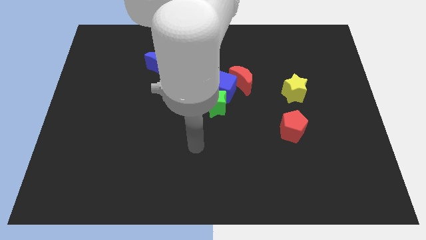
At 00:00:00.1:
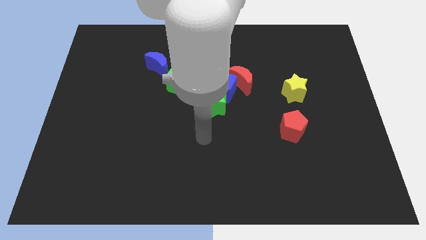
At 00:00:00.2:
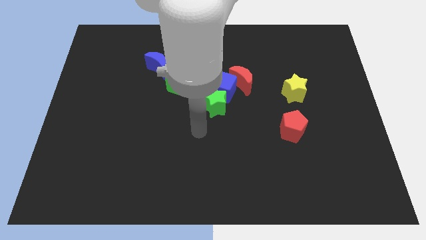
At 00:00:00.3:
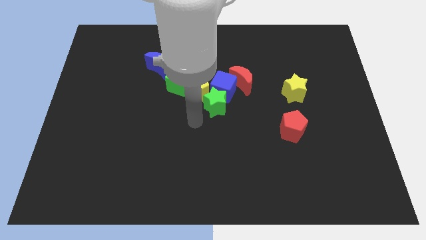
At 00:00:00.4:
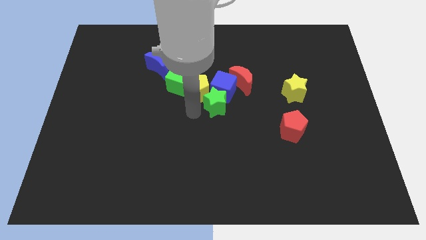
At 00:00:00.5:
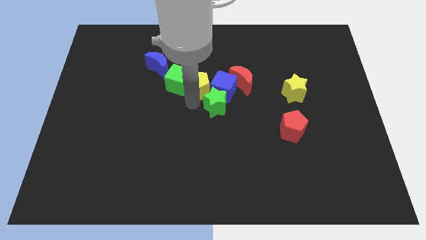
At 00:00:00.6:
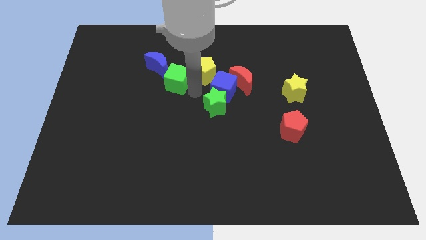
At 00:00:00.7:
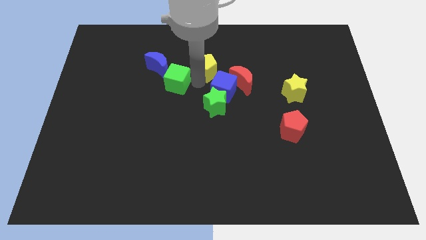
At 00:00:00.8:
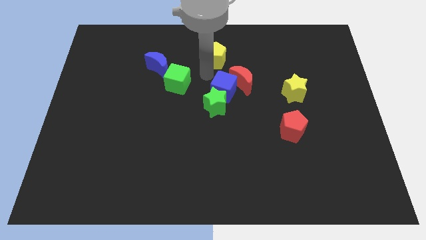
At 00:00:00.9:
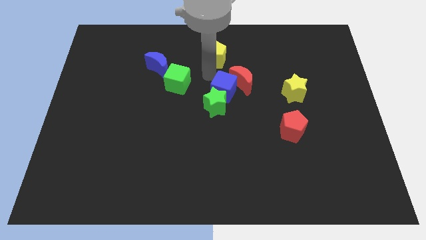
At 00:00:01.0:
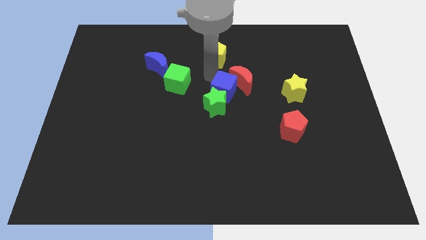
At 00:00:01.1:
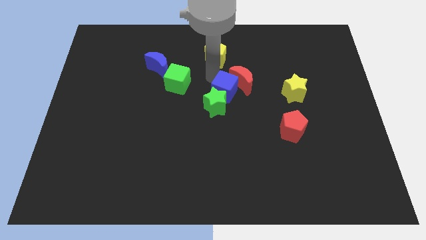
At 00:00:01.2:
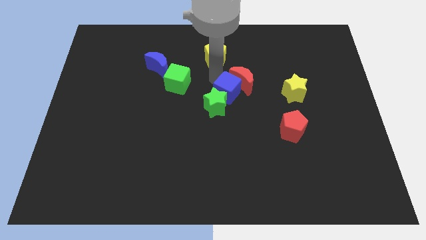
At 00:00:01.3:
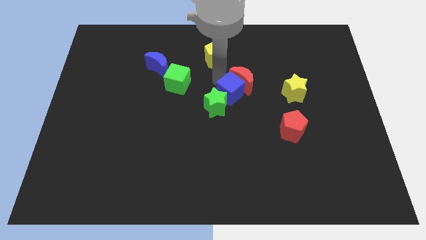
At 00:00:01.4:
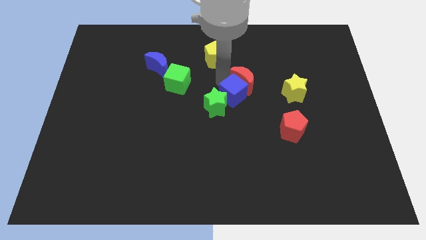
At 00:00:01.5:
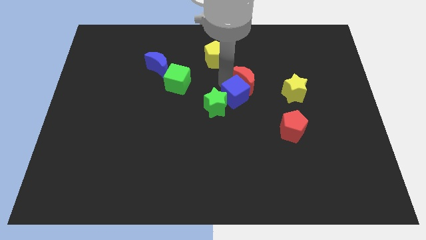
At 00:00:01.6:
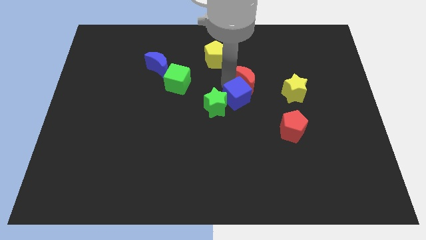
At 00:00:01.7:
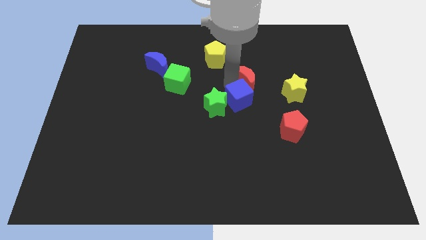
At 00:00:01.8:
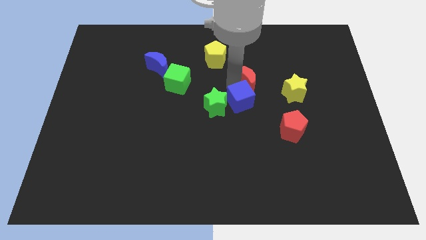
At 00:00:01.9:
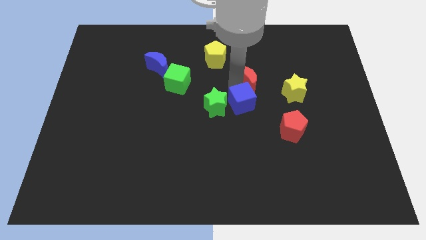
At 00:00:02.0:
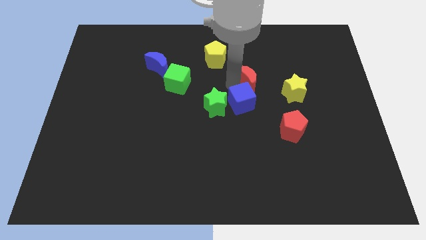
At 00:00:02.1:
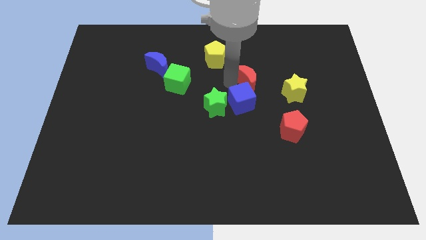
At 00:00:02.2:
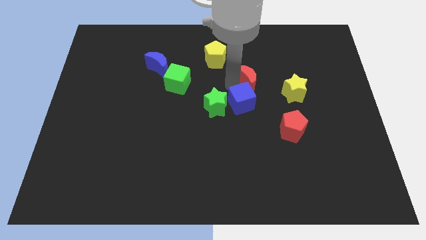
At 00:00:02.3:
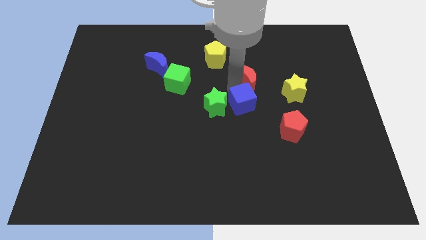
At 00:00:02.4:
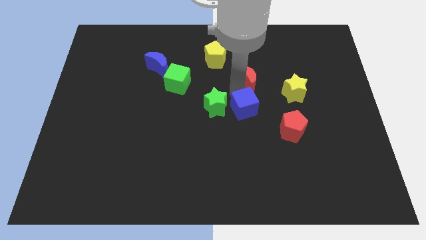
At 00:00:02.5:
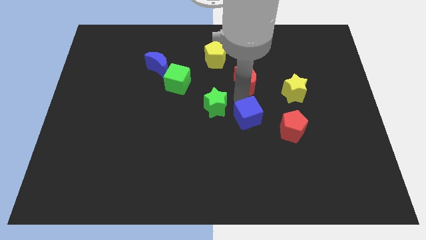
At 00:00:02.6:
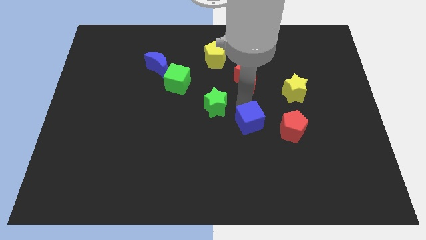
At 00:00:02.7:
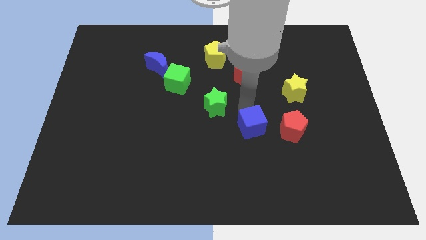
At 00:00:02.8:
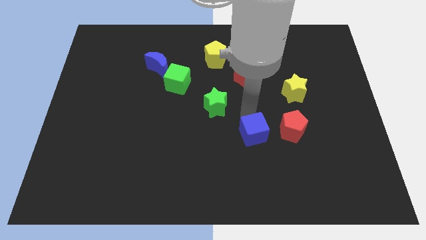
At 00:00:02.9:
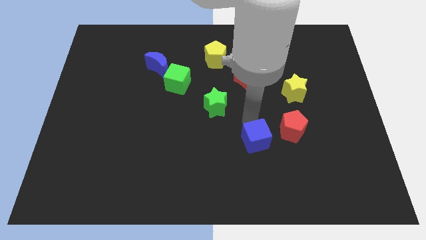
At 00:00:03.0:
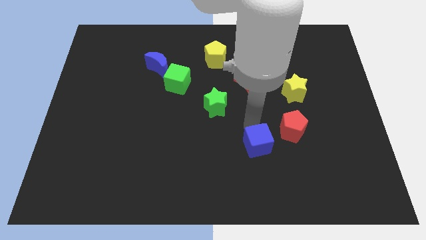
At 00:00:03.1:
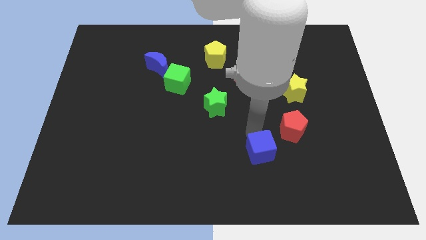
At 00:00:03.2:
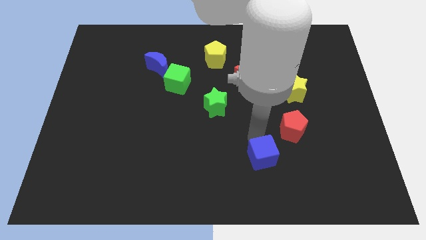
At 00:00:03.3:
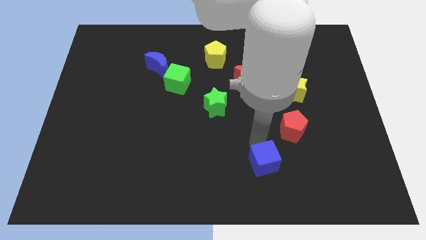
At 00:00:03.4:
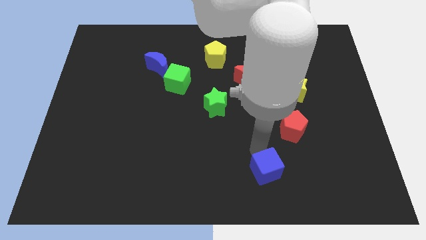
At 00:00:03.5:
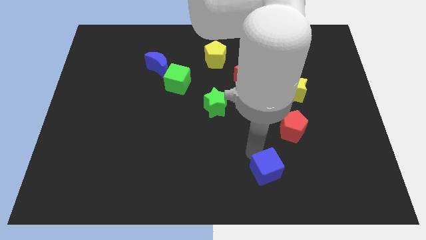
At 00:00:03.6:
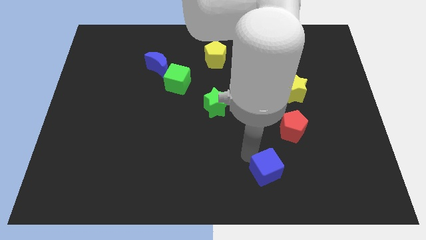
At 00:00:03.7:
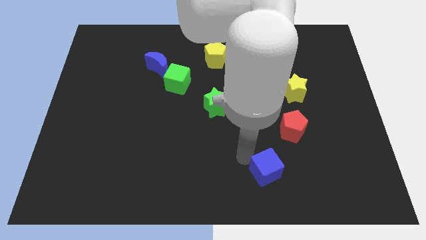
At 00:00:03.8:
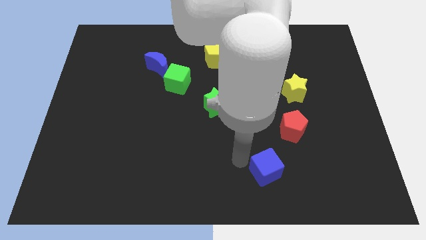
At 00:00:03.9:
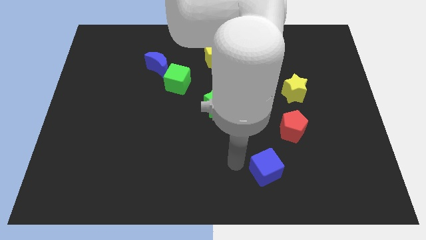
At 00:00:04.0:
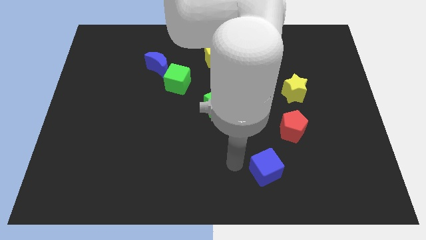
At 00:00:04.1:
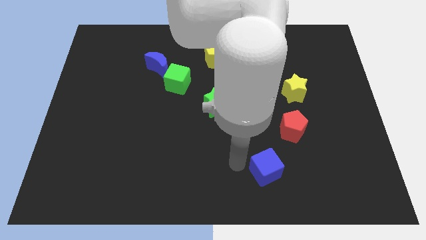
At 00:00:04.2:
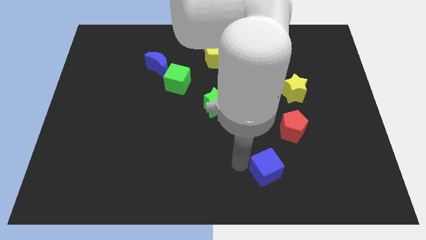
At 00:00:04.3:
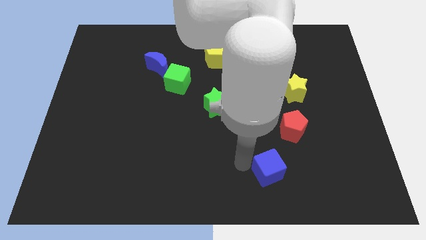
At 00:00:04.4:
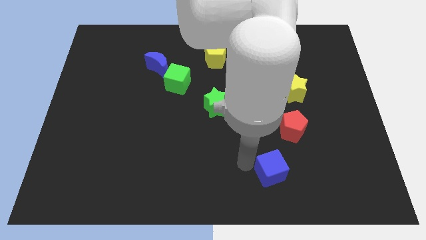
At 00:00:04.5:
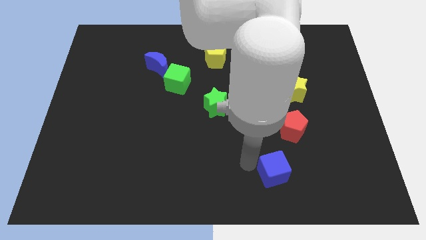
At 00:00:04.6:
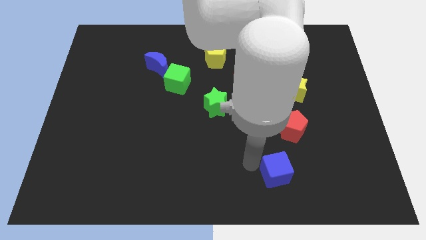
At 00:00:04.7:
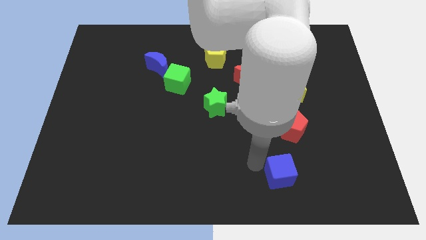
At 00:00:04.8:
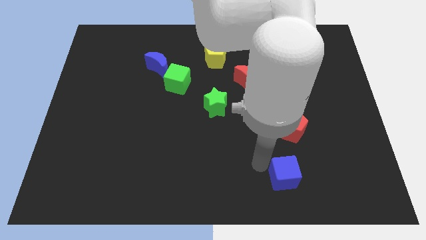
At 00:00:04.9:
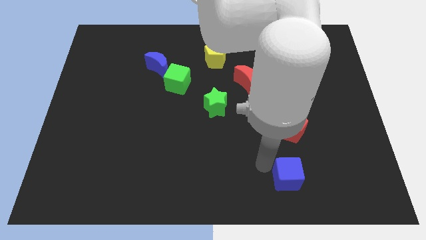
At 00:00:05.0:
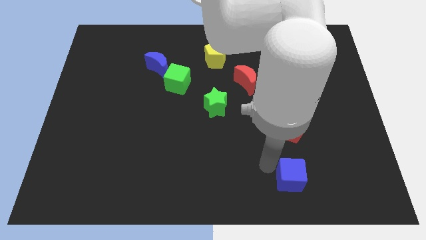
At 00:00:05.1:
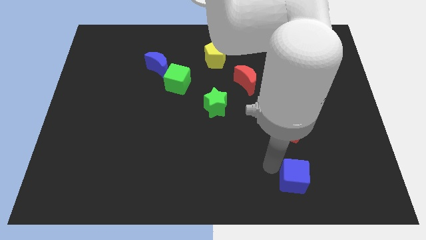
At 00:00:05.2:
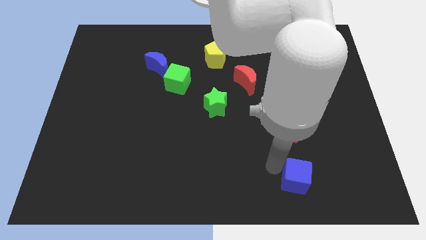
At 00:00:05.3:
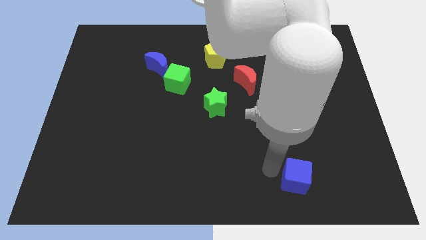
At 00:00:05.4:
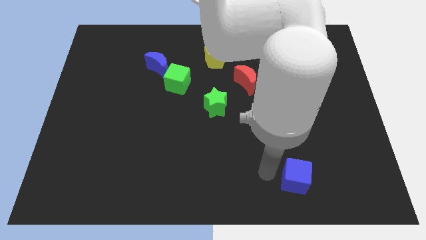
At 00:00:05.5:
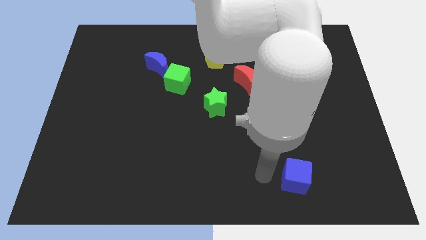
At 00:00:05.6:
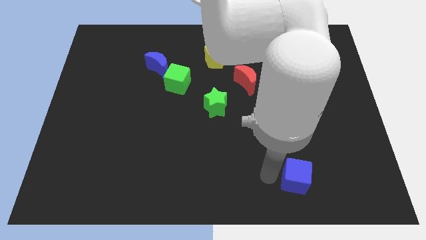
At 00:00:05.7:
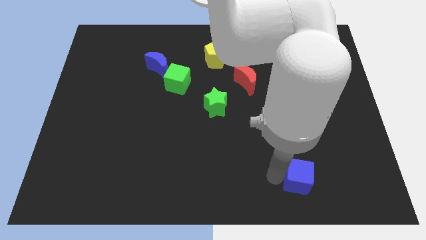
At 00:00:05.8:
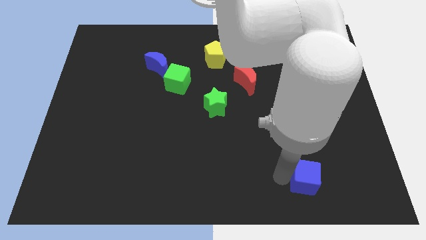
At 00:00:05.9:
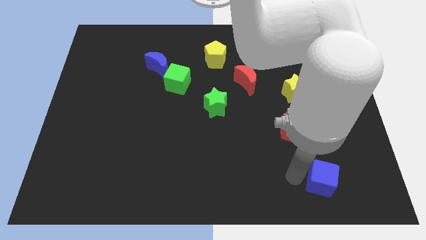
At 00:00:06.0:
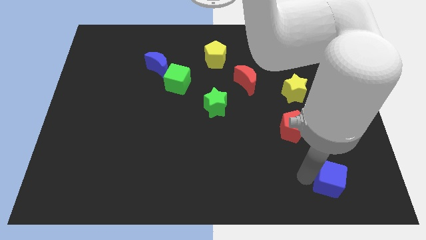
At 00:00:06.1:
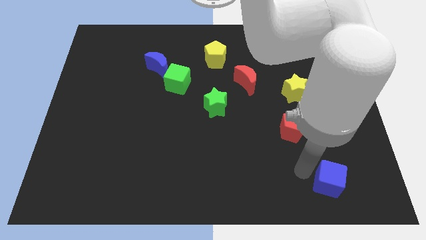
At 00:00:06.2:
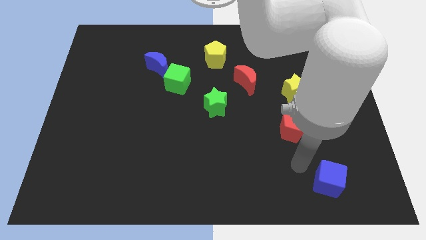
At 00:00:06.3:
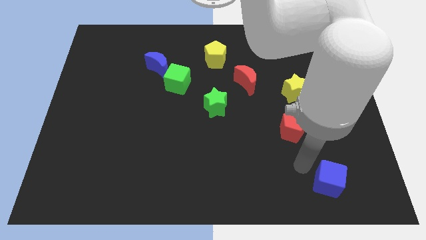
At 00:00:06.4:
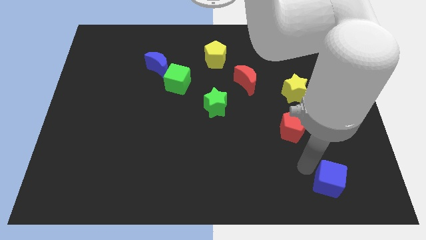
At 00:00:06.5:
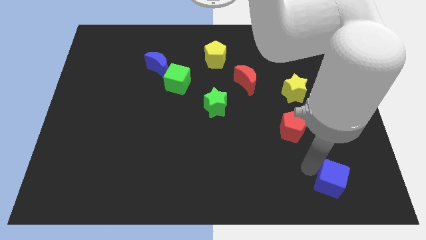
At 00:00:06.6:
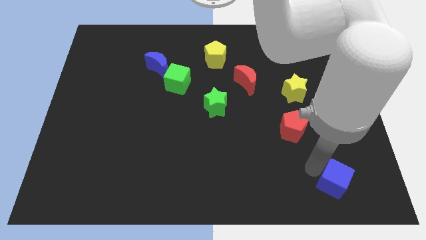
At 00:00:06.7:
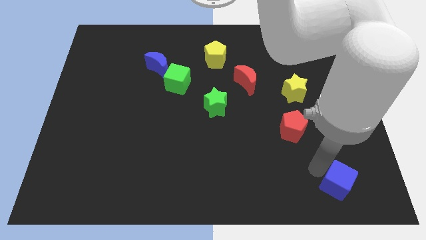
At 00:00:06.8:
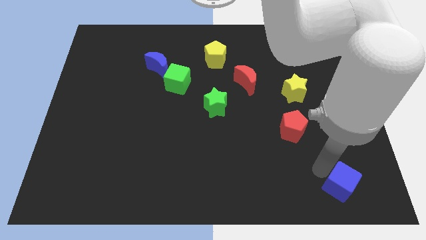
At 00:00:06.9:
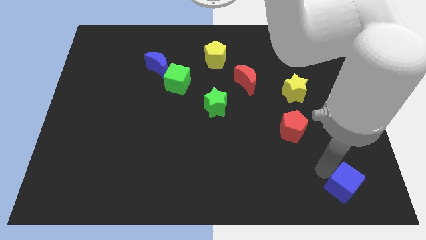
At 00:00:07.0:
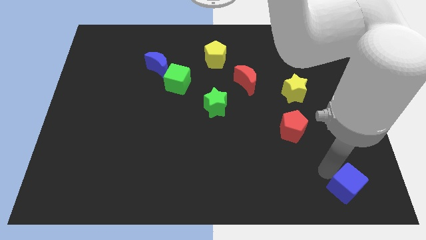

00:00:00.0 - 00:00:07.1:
push the blue cube to the bottom right of the board
